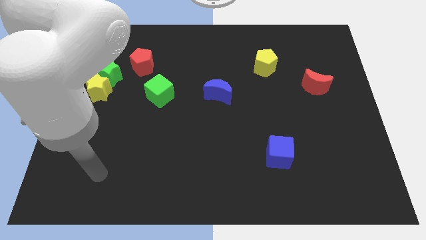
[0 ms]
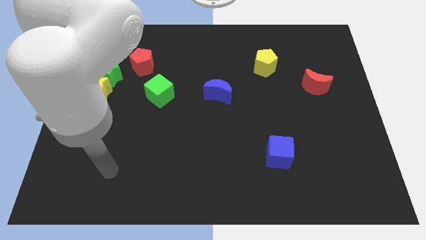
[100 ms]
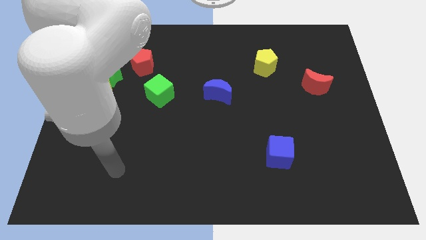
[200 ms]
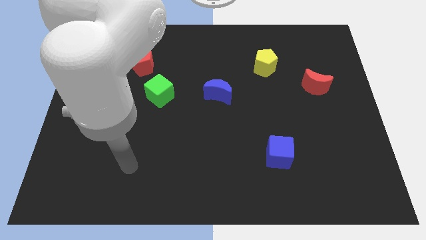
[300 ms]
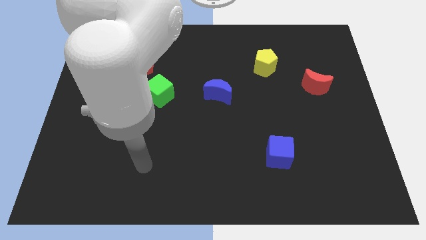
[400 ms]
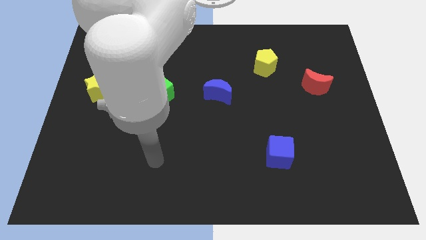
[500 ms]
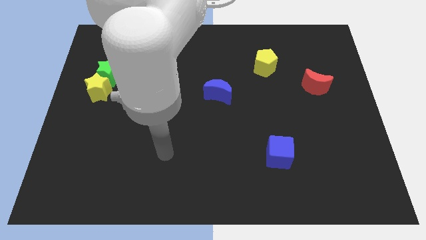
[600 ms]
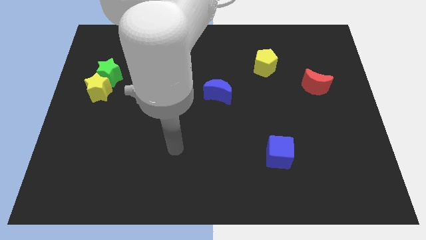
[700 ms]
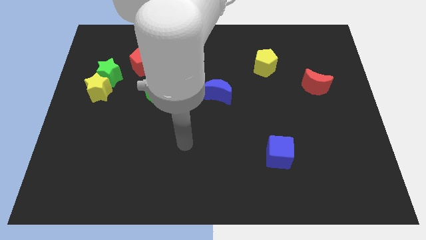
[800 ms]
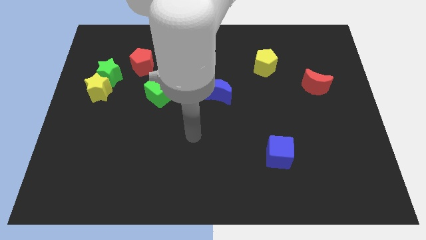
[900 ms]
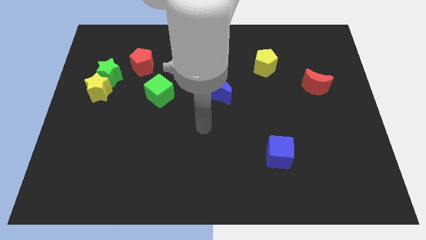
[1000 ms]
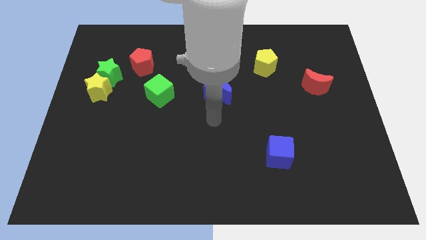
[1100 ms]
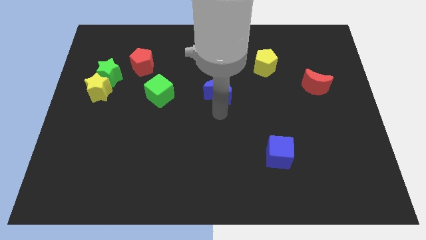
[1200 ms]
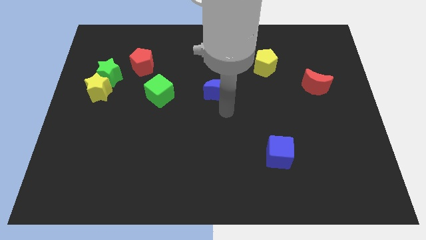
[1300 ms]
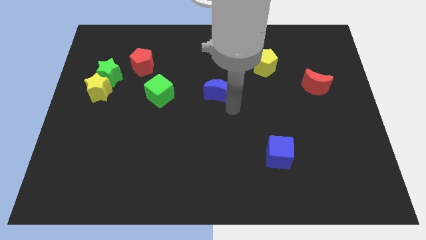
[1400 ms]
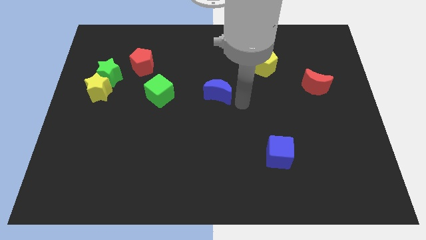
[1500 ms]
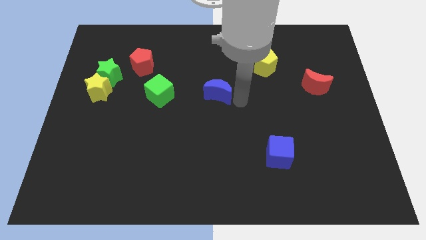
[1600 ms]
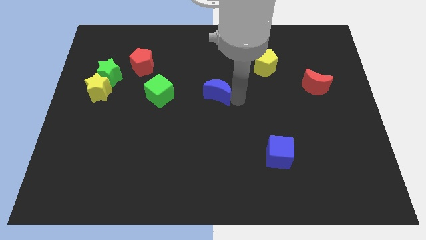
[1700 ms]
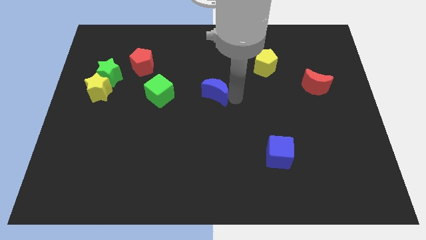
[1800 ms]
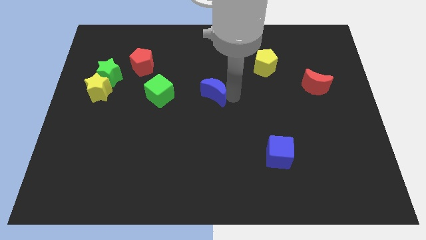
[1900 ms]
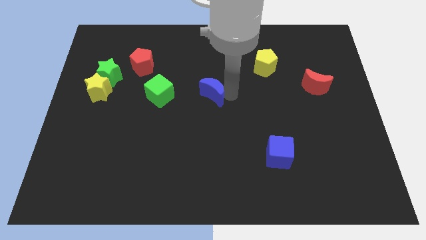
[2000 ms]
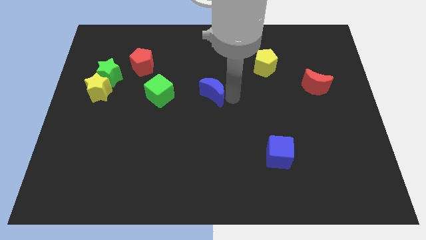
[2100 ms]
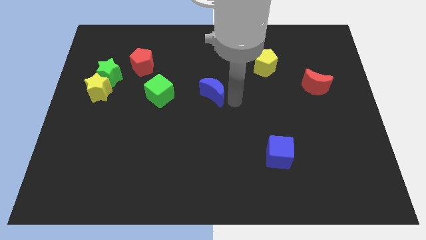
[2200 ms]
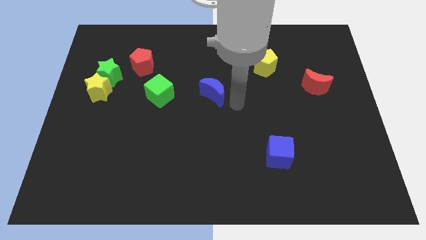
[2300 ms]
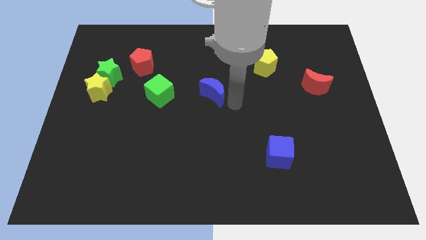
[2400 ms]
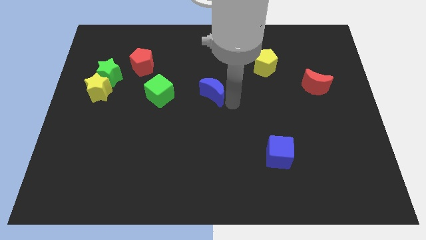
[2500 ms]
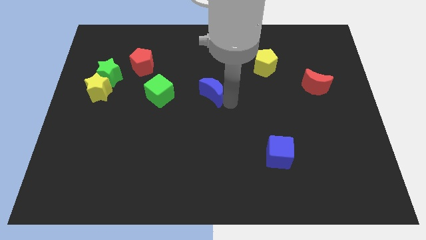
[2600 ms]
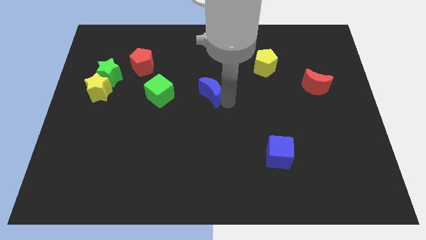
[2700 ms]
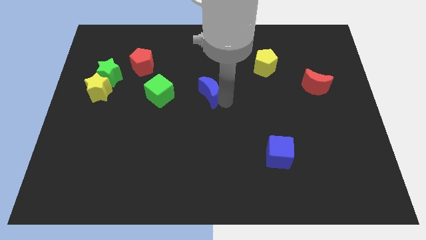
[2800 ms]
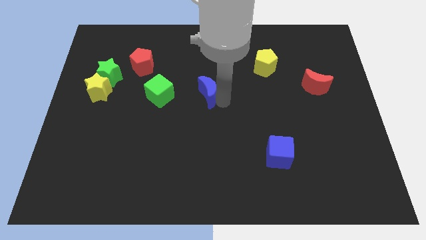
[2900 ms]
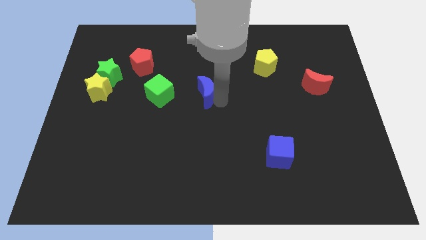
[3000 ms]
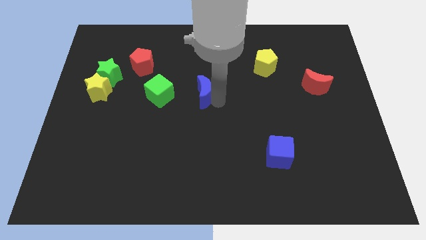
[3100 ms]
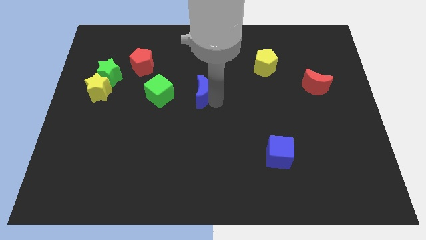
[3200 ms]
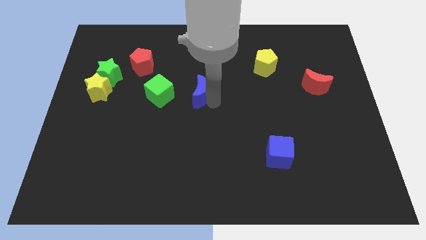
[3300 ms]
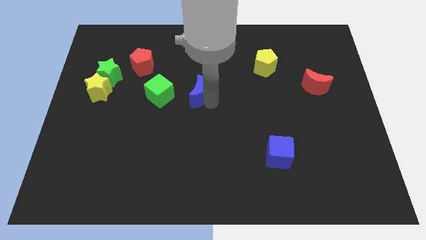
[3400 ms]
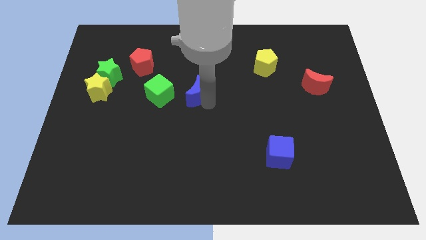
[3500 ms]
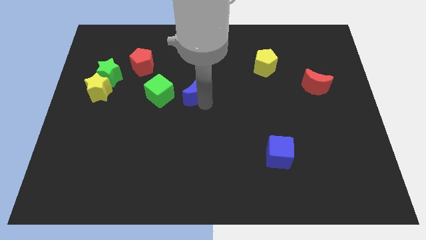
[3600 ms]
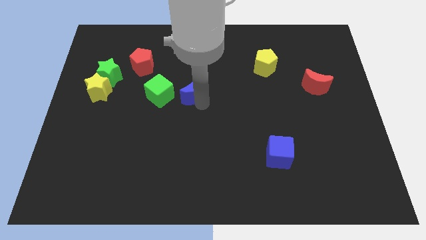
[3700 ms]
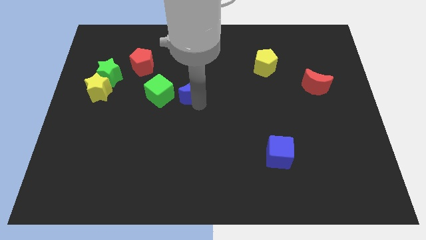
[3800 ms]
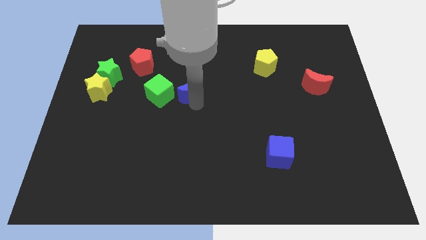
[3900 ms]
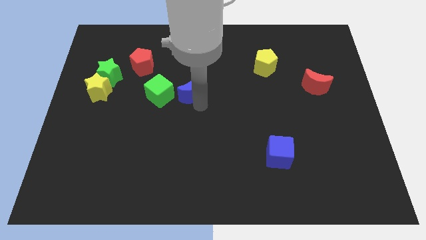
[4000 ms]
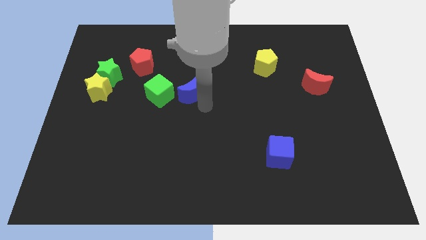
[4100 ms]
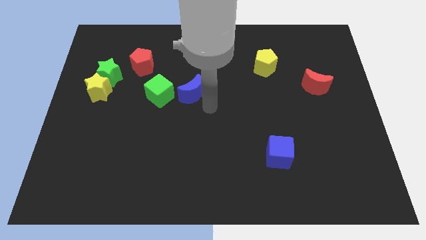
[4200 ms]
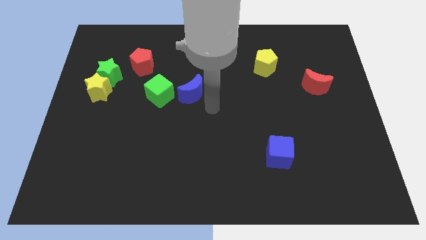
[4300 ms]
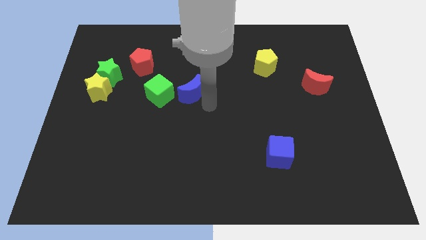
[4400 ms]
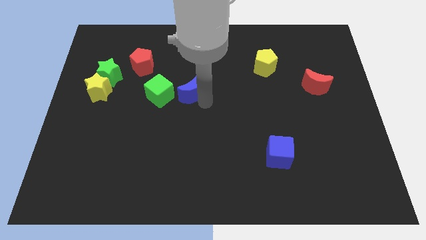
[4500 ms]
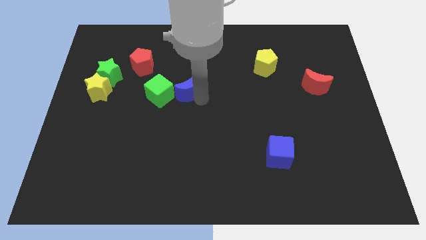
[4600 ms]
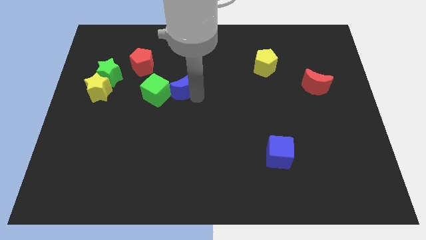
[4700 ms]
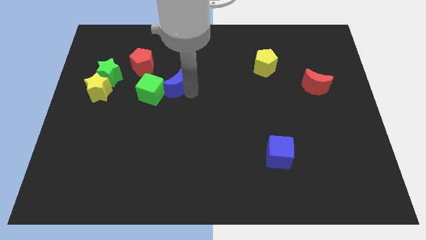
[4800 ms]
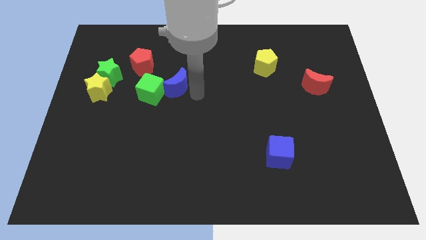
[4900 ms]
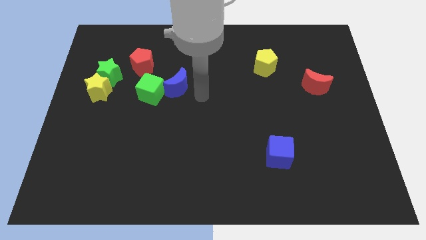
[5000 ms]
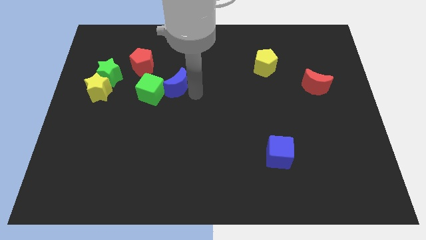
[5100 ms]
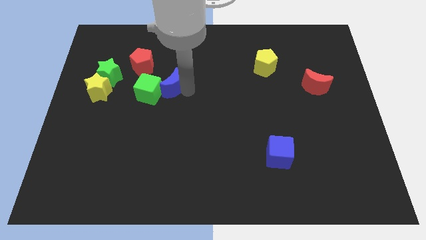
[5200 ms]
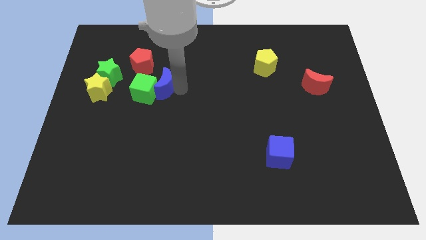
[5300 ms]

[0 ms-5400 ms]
move the blue moon to the right of the green star

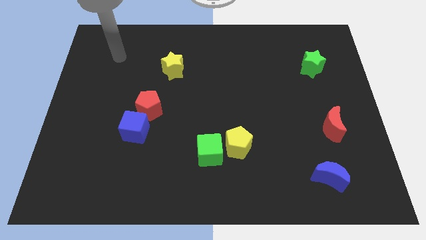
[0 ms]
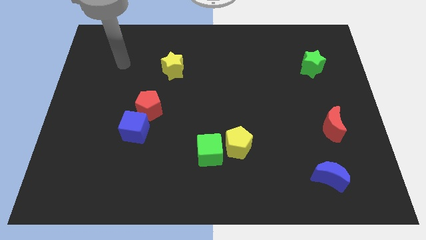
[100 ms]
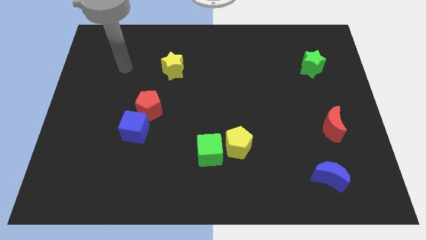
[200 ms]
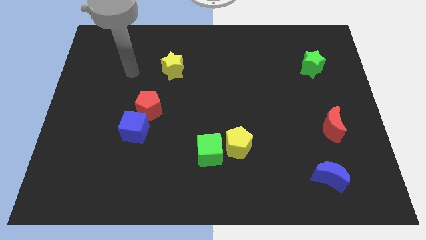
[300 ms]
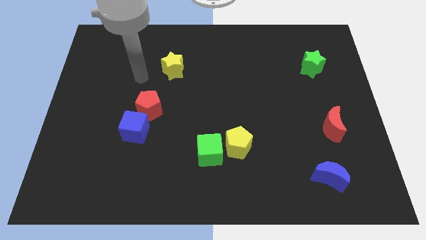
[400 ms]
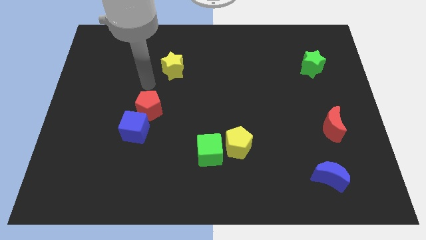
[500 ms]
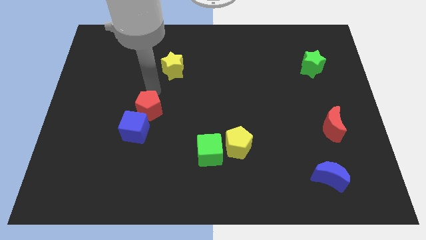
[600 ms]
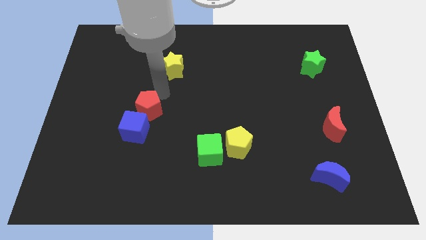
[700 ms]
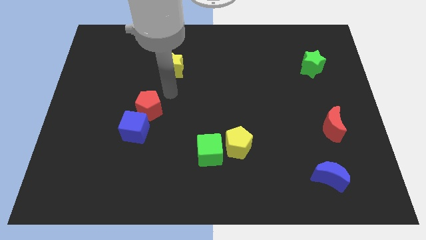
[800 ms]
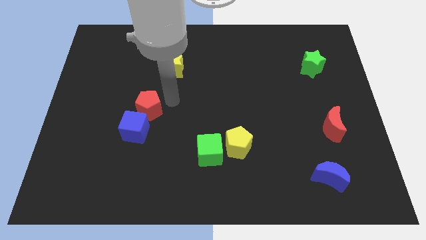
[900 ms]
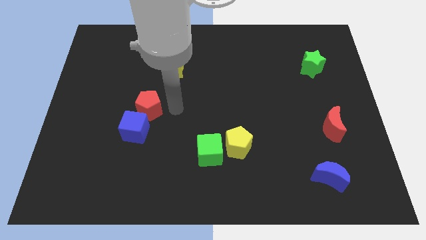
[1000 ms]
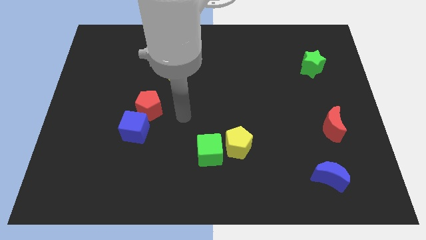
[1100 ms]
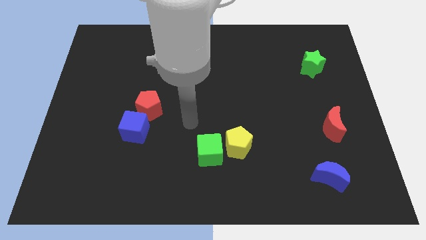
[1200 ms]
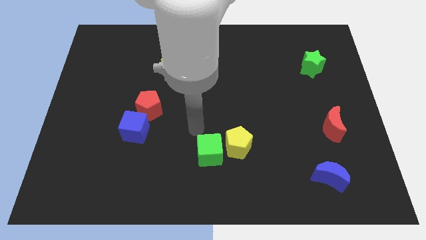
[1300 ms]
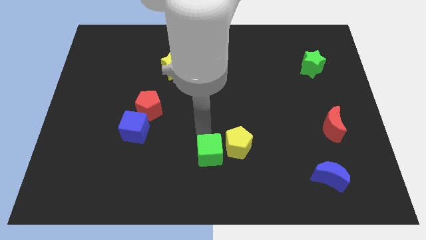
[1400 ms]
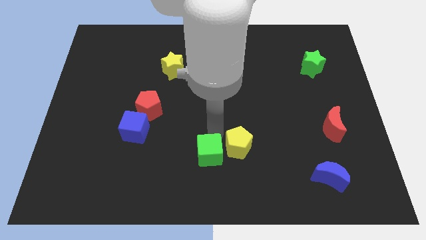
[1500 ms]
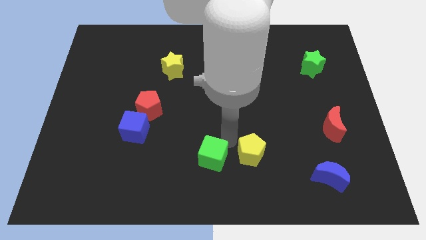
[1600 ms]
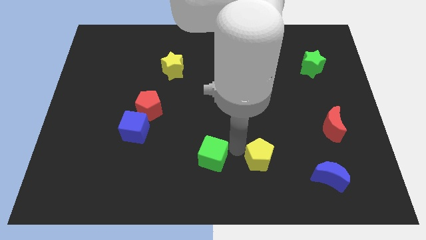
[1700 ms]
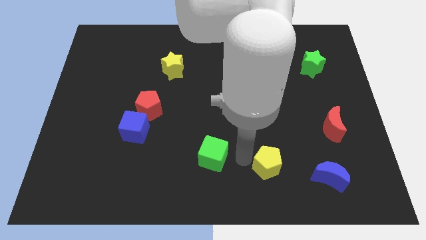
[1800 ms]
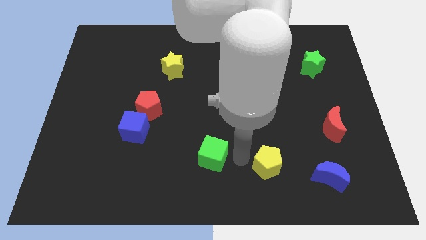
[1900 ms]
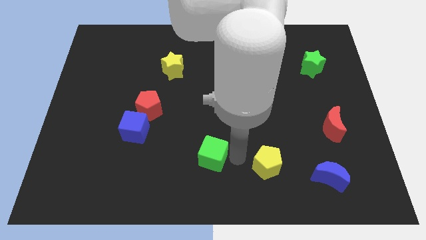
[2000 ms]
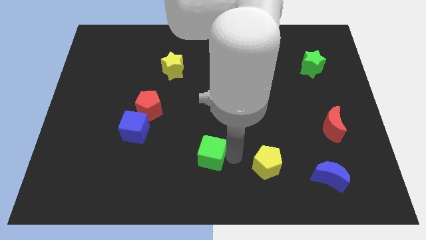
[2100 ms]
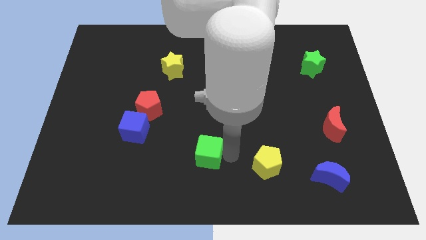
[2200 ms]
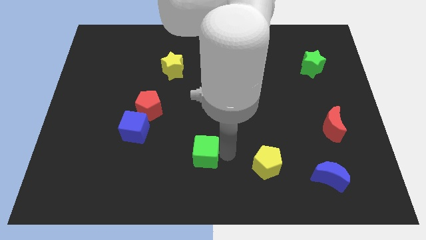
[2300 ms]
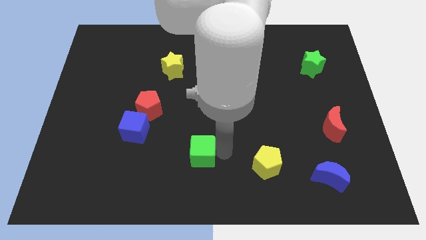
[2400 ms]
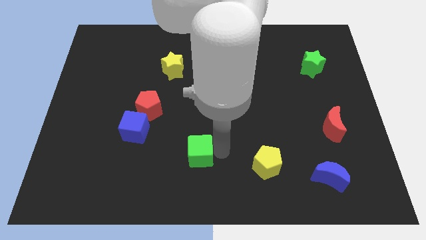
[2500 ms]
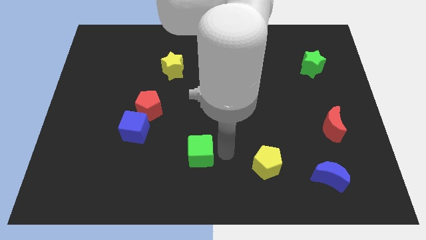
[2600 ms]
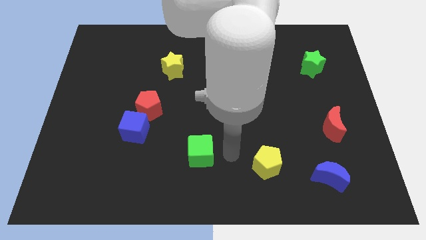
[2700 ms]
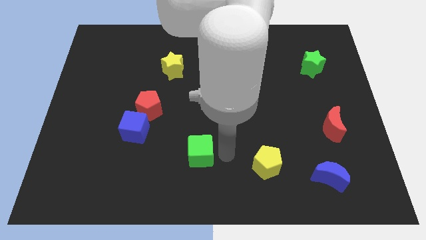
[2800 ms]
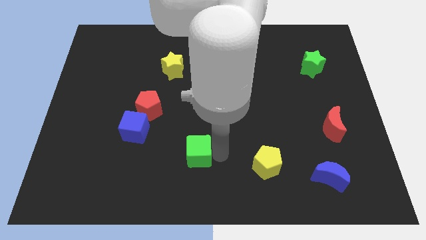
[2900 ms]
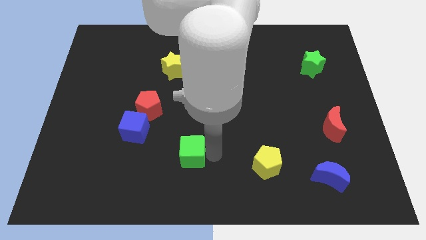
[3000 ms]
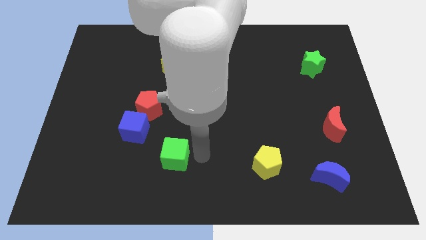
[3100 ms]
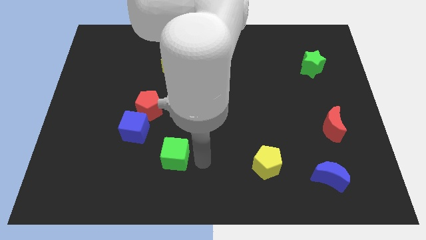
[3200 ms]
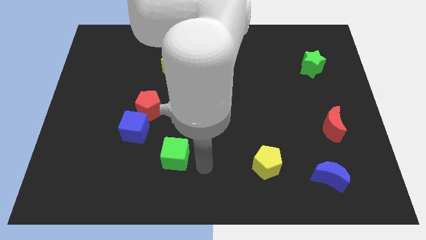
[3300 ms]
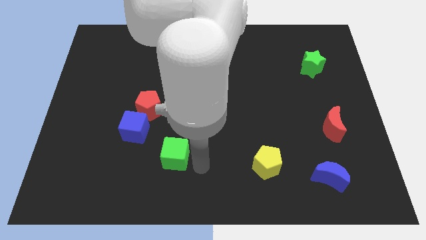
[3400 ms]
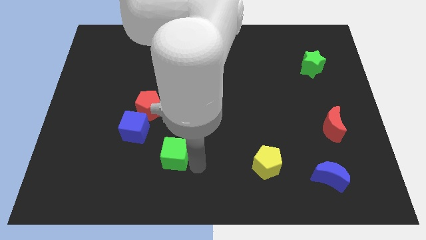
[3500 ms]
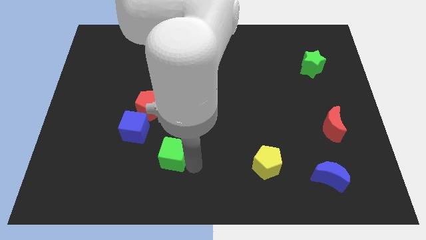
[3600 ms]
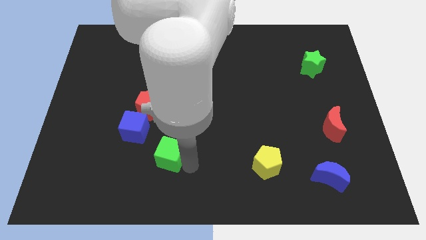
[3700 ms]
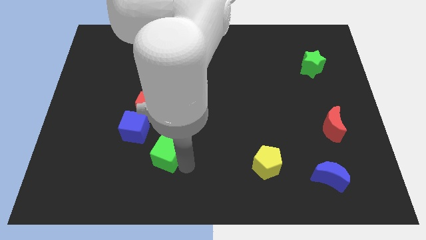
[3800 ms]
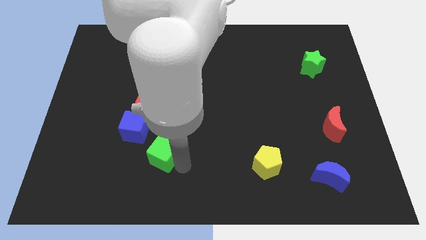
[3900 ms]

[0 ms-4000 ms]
push the green cube below the red pentagon
